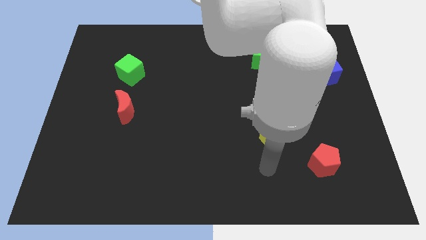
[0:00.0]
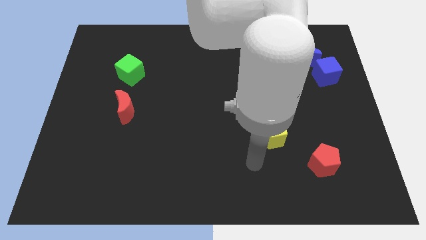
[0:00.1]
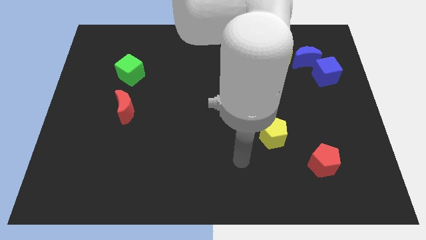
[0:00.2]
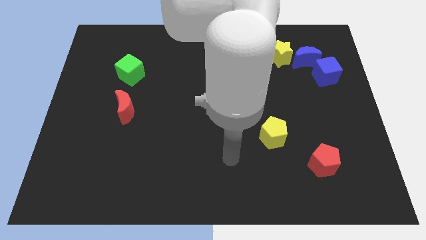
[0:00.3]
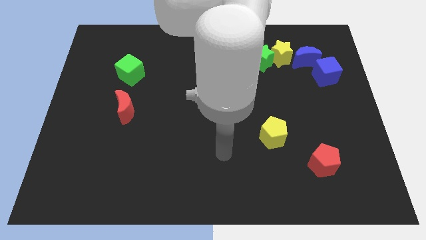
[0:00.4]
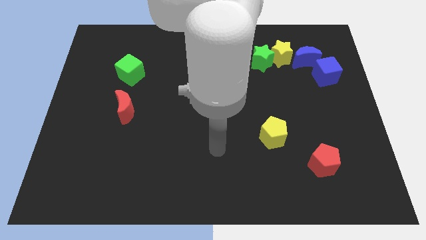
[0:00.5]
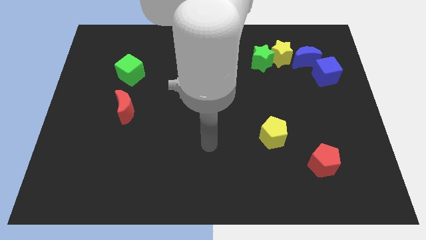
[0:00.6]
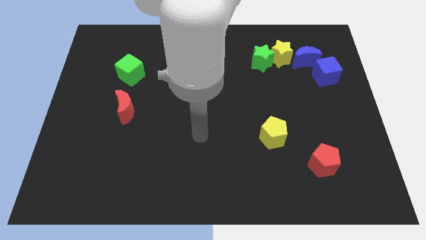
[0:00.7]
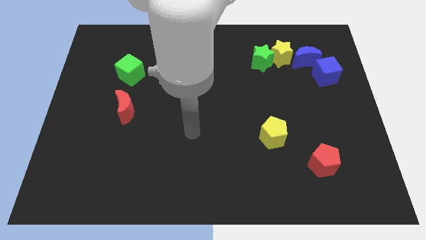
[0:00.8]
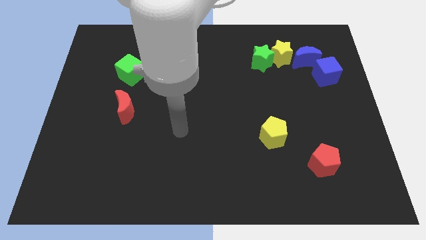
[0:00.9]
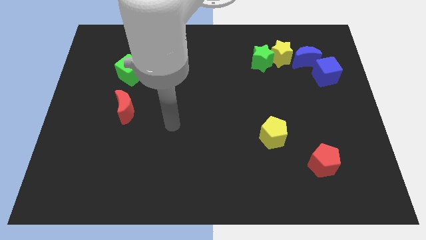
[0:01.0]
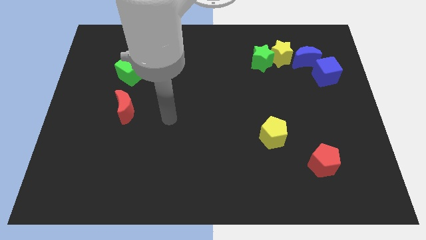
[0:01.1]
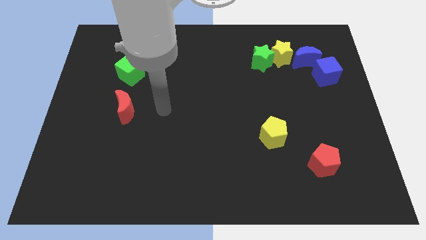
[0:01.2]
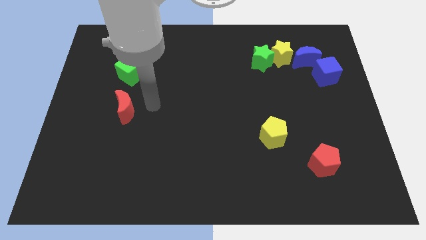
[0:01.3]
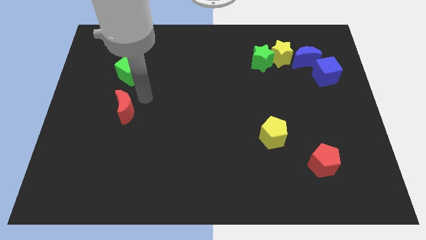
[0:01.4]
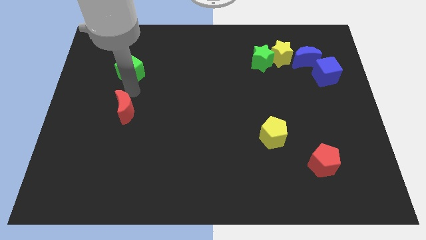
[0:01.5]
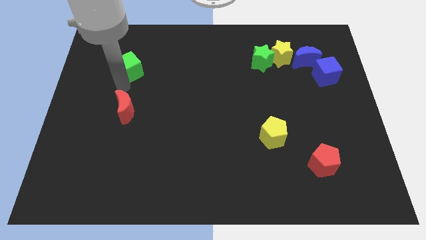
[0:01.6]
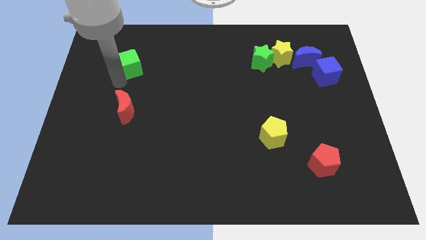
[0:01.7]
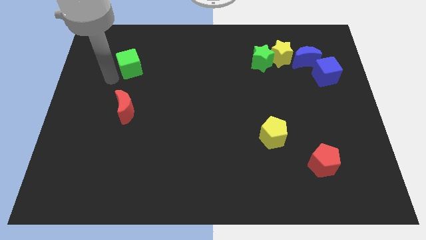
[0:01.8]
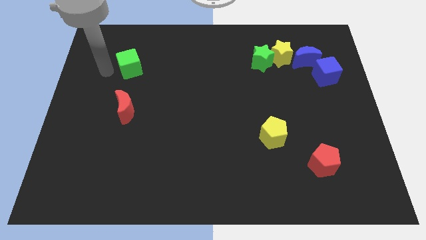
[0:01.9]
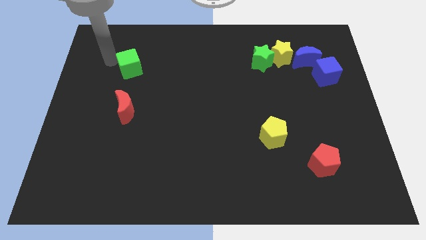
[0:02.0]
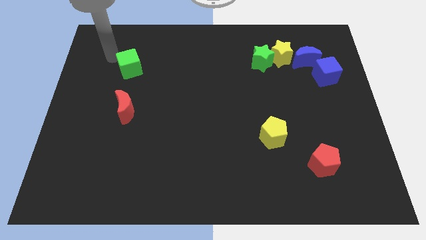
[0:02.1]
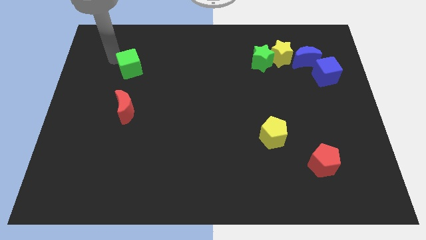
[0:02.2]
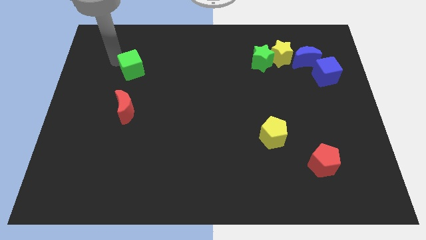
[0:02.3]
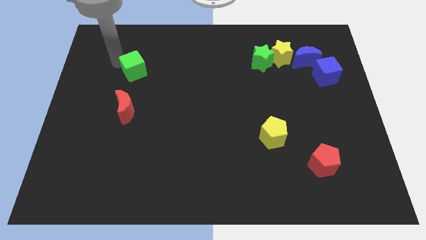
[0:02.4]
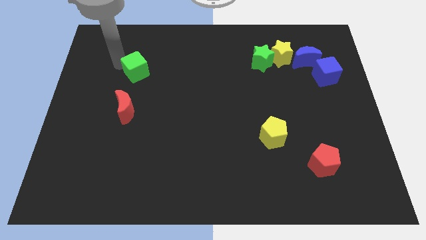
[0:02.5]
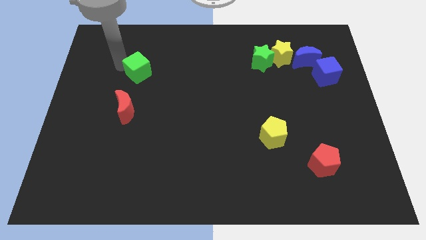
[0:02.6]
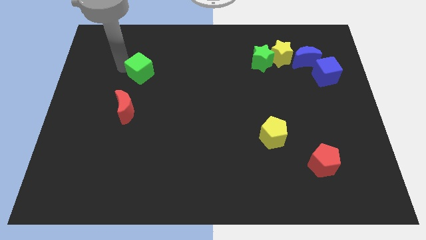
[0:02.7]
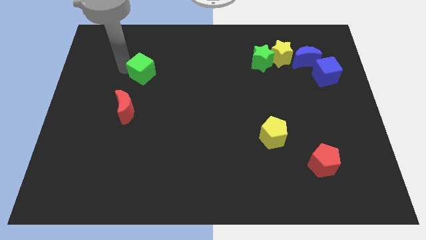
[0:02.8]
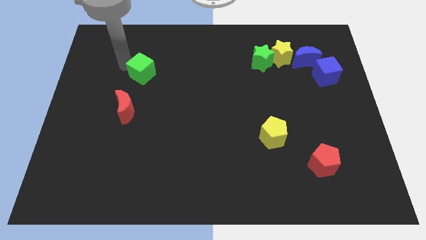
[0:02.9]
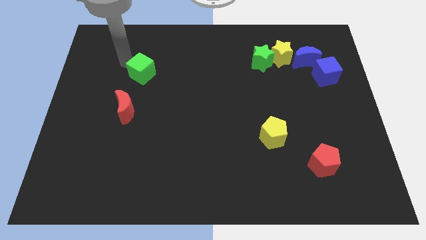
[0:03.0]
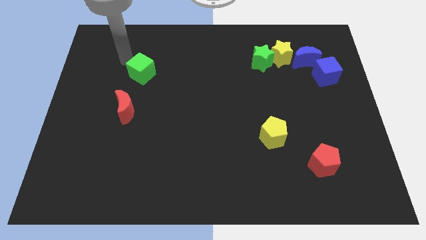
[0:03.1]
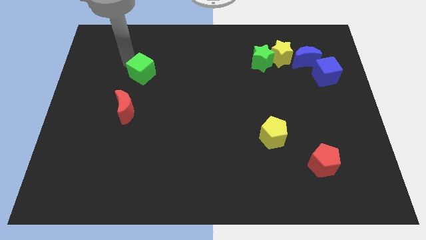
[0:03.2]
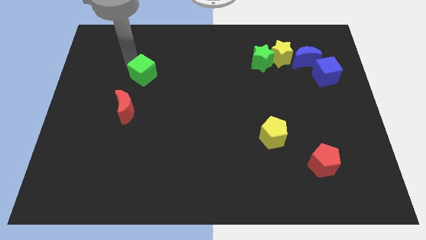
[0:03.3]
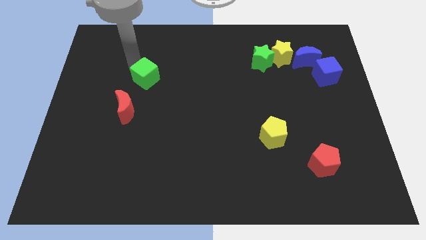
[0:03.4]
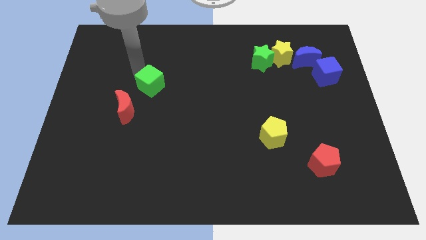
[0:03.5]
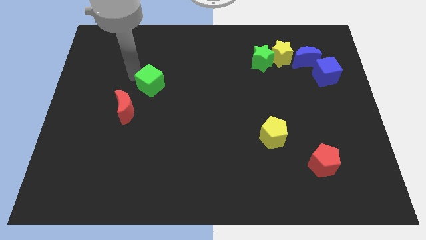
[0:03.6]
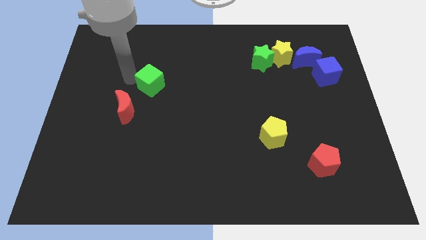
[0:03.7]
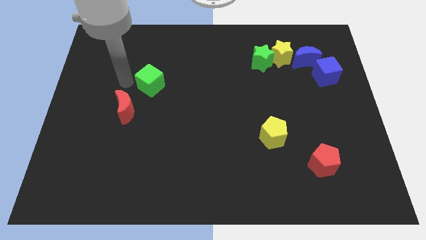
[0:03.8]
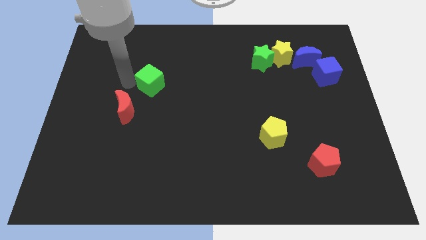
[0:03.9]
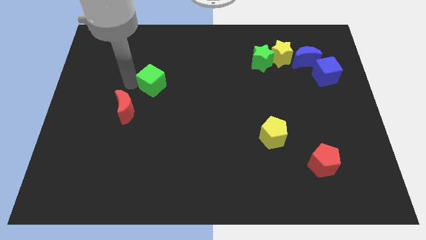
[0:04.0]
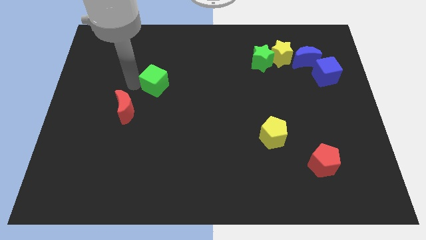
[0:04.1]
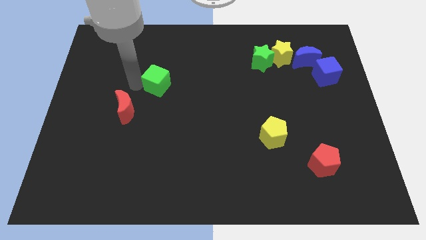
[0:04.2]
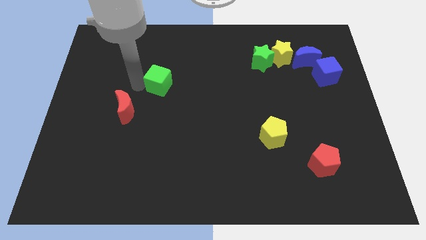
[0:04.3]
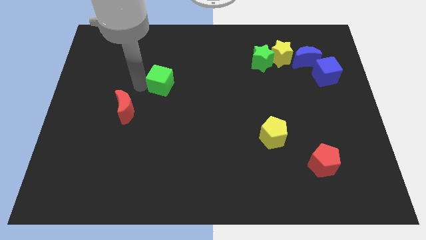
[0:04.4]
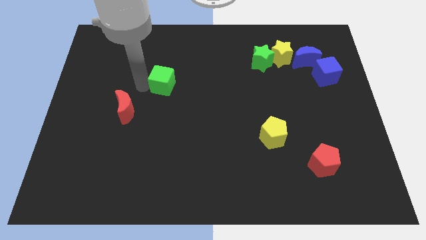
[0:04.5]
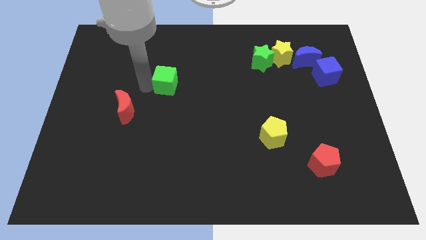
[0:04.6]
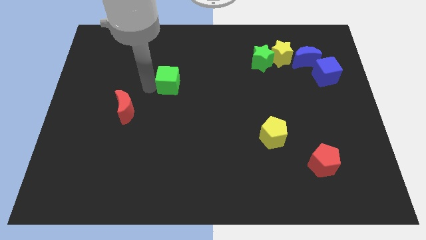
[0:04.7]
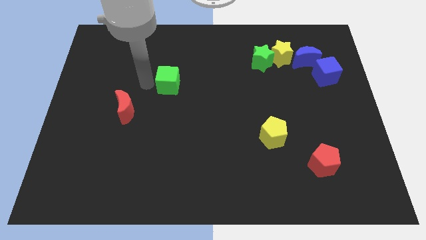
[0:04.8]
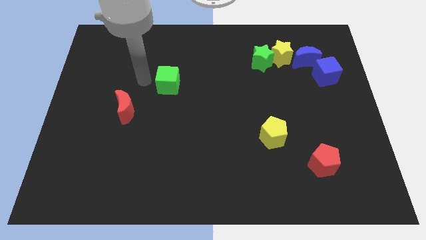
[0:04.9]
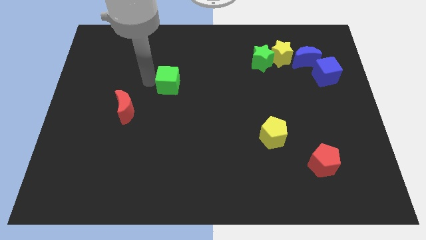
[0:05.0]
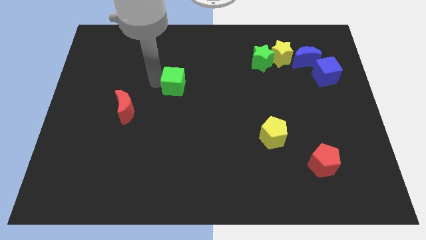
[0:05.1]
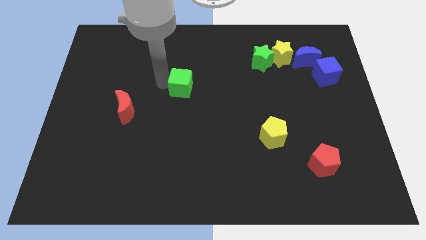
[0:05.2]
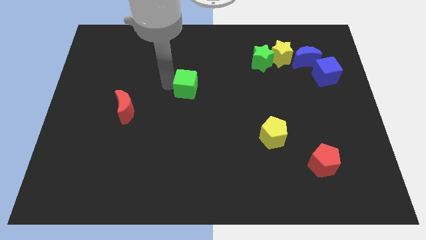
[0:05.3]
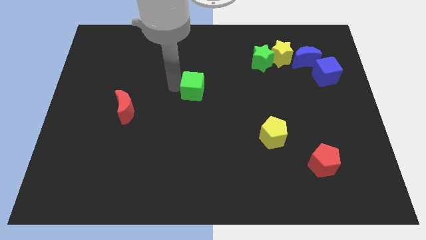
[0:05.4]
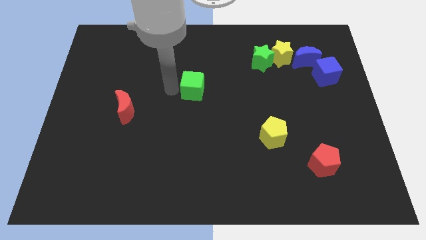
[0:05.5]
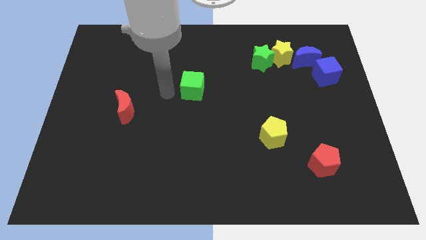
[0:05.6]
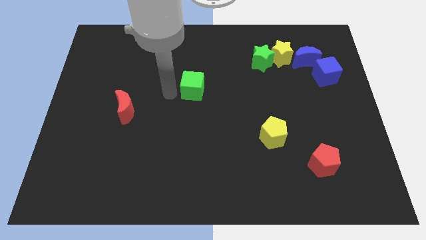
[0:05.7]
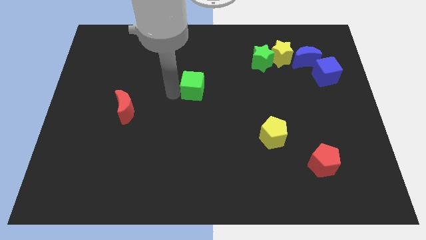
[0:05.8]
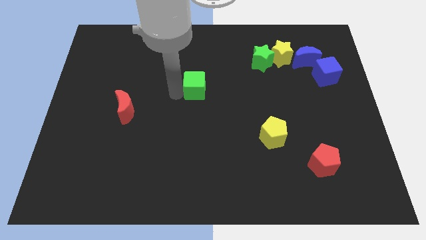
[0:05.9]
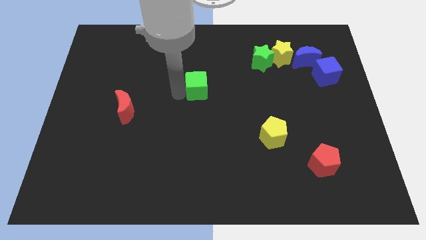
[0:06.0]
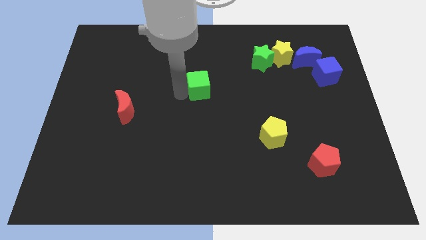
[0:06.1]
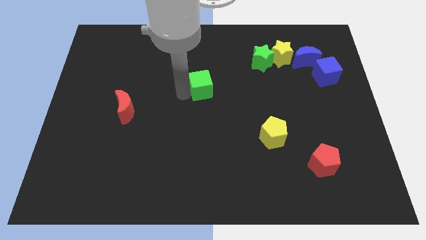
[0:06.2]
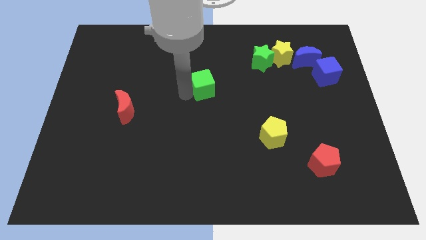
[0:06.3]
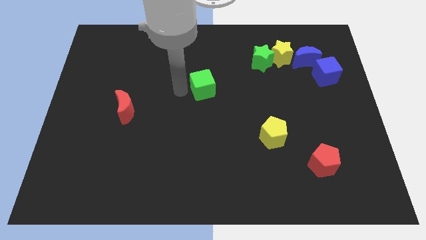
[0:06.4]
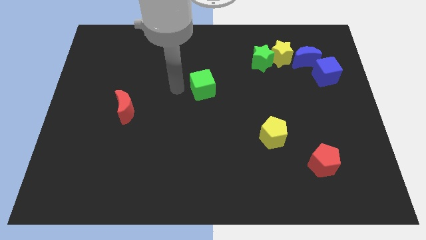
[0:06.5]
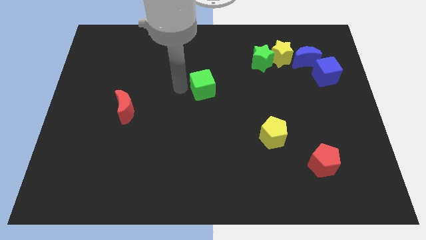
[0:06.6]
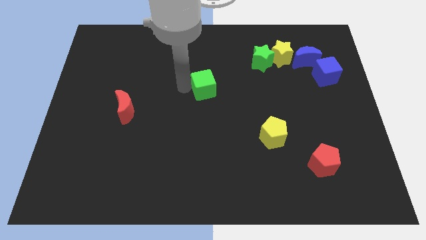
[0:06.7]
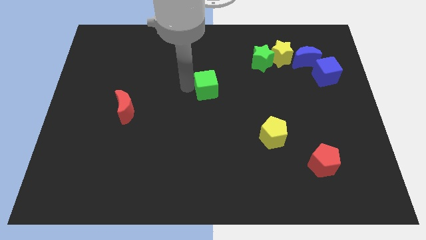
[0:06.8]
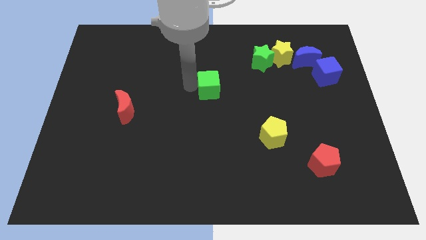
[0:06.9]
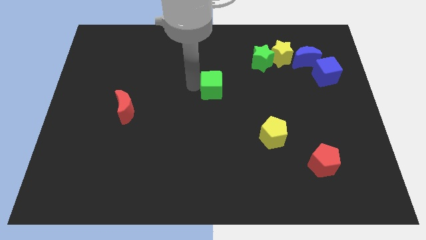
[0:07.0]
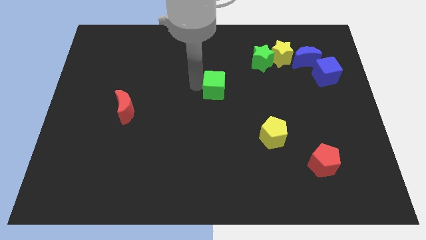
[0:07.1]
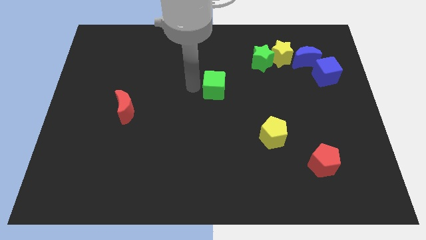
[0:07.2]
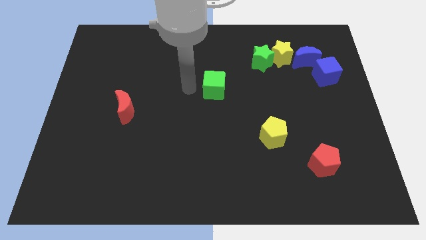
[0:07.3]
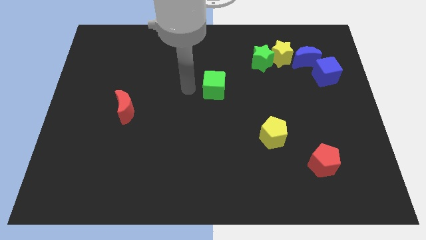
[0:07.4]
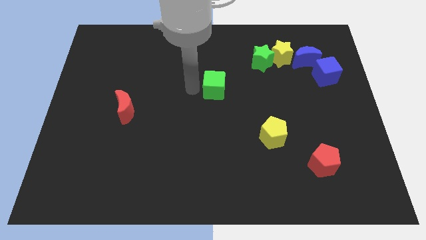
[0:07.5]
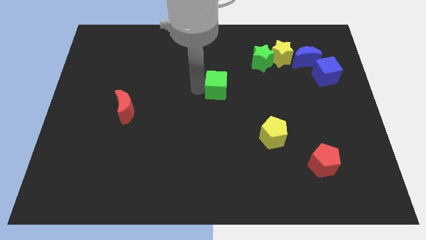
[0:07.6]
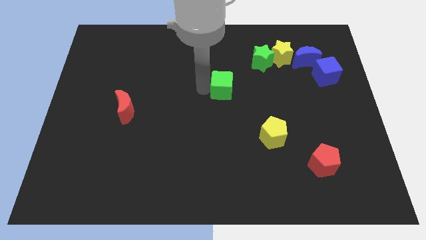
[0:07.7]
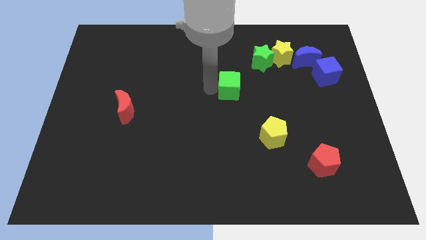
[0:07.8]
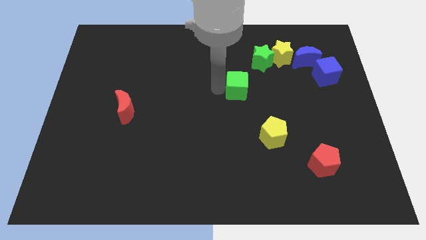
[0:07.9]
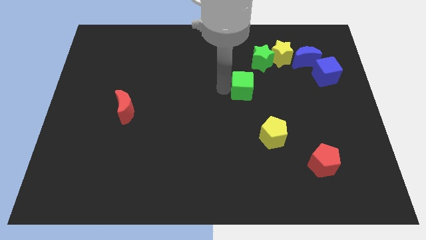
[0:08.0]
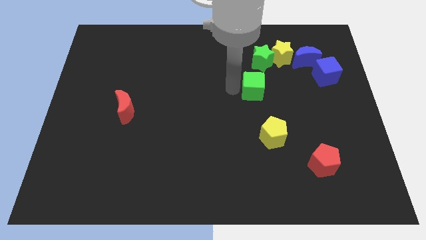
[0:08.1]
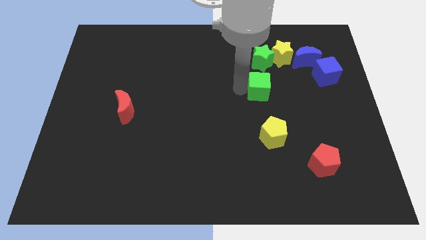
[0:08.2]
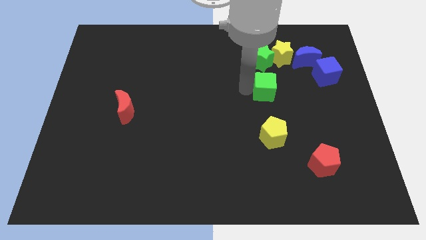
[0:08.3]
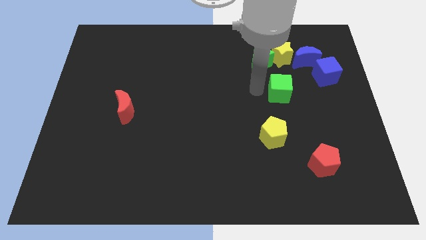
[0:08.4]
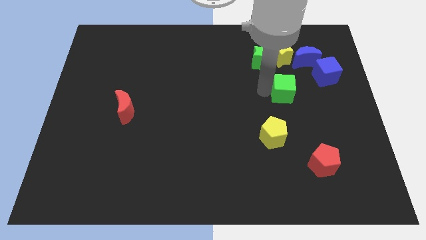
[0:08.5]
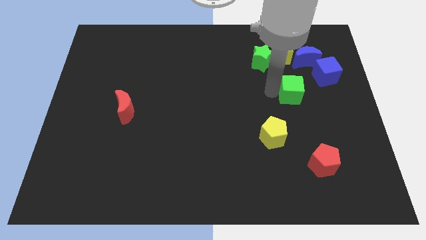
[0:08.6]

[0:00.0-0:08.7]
push the green cube diagonally down and to the left of the blue cube
